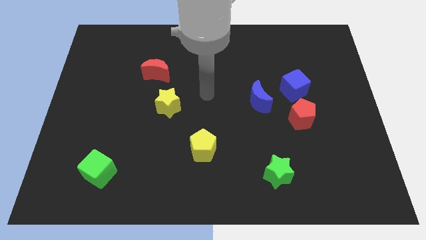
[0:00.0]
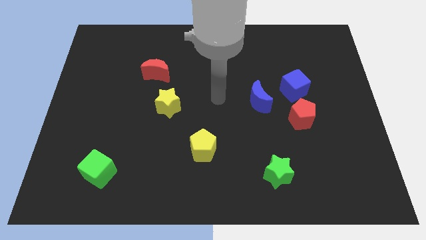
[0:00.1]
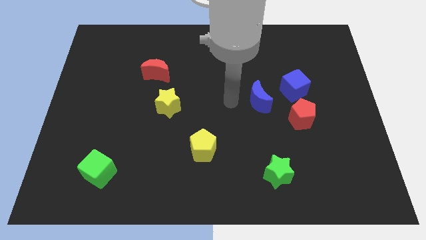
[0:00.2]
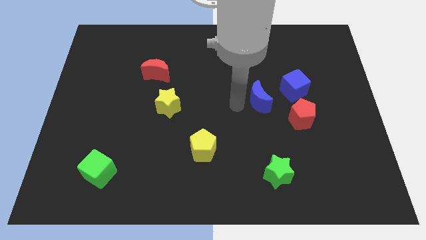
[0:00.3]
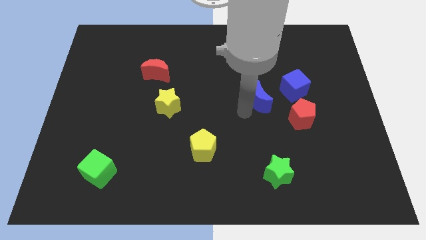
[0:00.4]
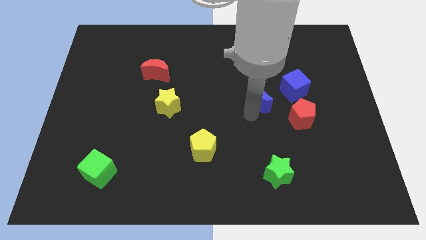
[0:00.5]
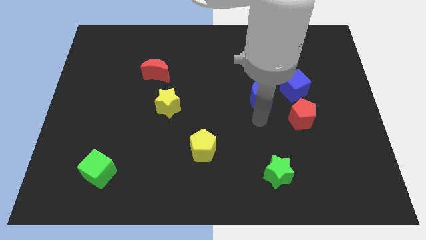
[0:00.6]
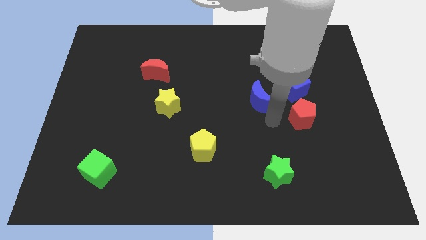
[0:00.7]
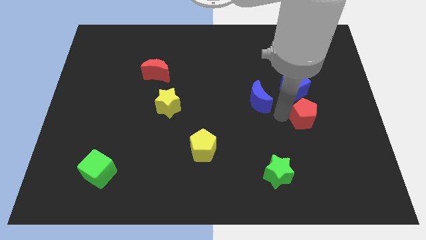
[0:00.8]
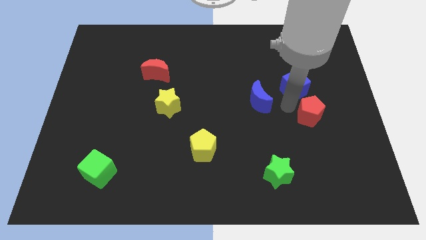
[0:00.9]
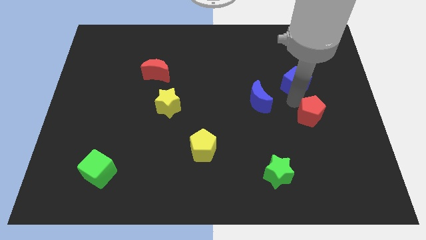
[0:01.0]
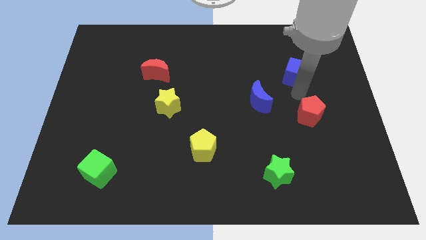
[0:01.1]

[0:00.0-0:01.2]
move the red pentagon away from the blue cube

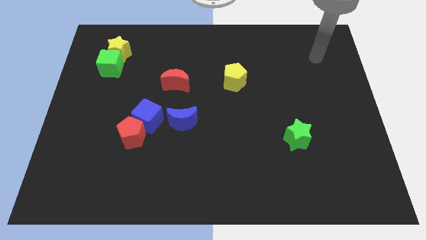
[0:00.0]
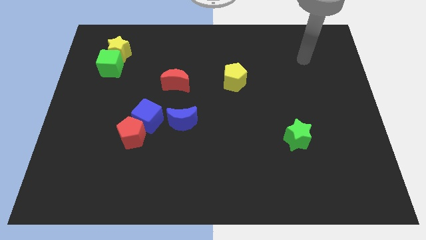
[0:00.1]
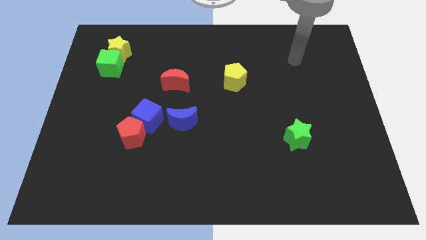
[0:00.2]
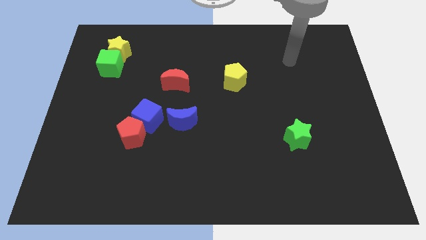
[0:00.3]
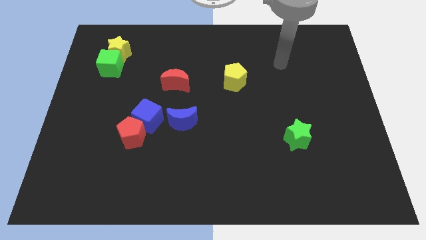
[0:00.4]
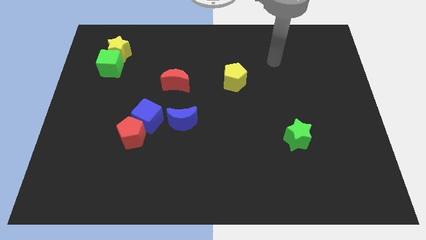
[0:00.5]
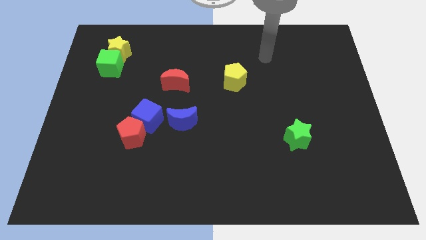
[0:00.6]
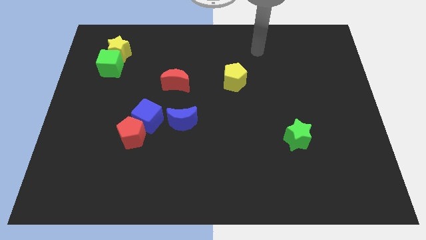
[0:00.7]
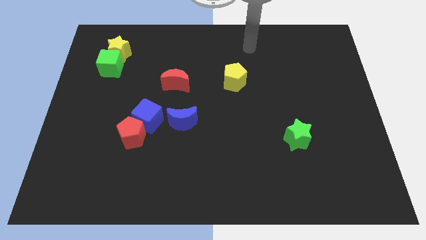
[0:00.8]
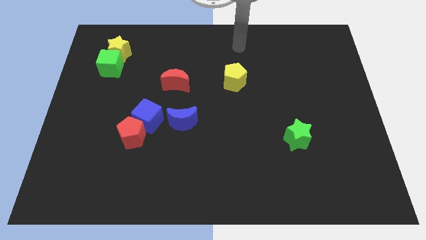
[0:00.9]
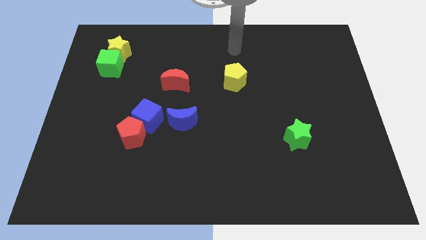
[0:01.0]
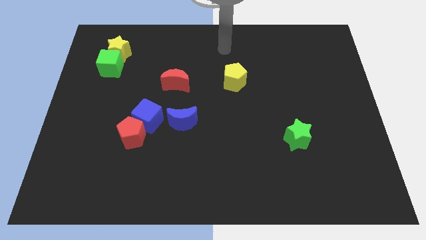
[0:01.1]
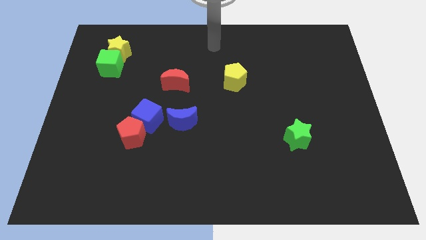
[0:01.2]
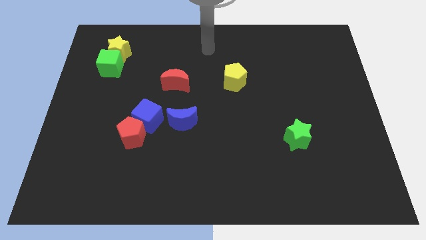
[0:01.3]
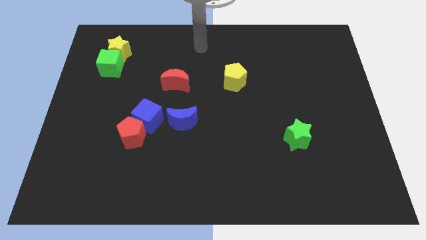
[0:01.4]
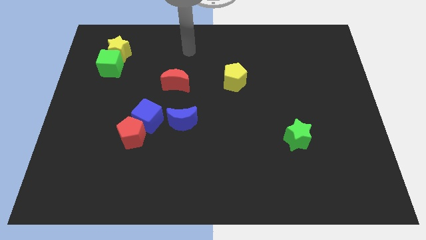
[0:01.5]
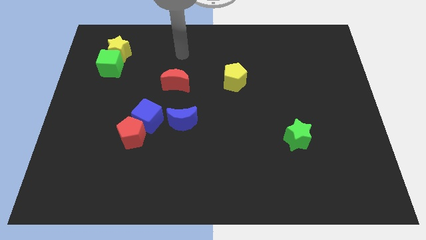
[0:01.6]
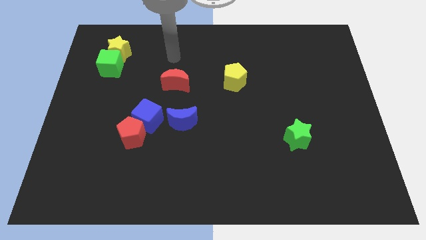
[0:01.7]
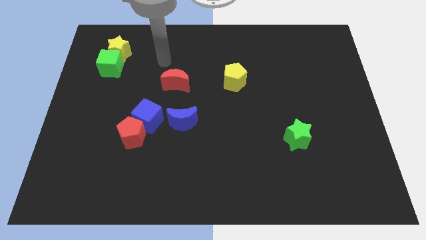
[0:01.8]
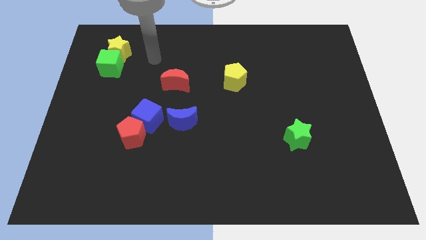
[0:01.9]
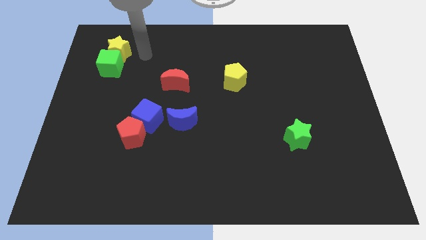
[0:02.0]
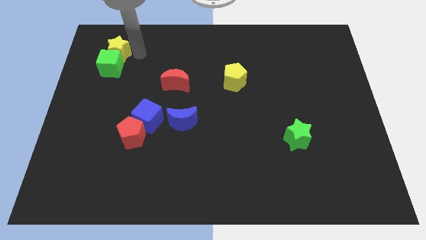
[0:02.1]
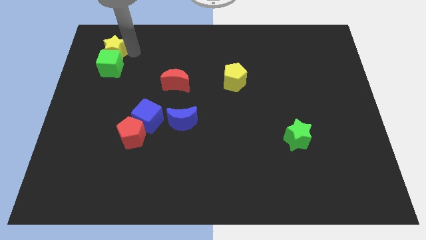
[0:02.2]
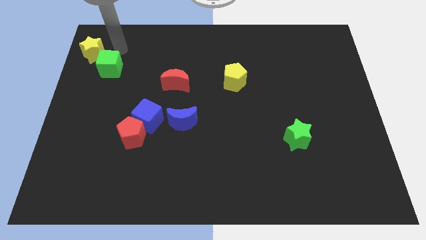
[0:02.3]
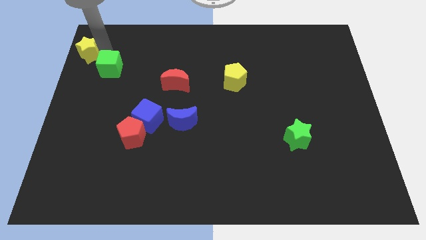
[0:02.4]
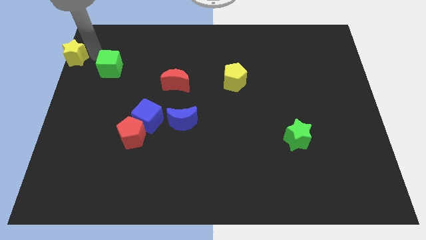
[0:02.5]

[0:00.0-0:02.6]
move the green cube away from the yellow star

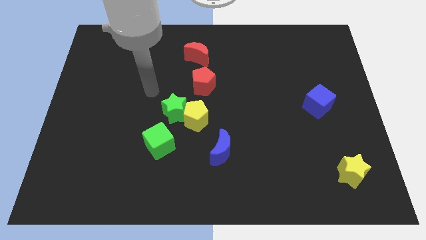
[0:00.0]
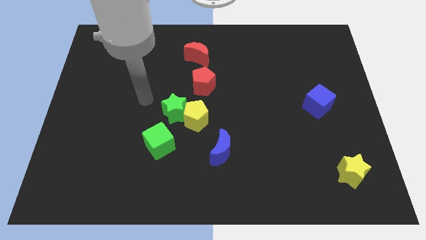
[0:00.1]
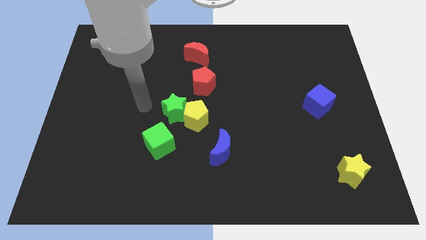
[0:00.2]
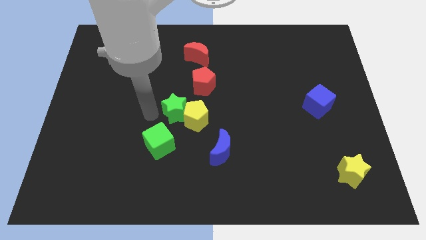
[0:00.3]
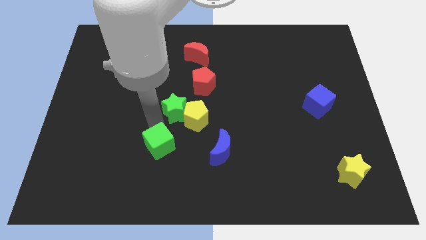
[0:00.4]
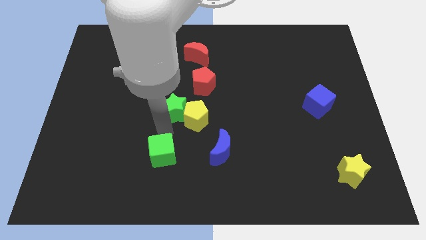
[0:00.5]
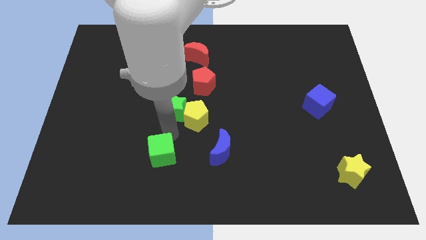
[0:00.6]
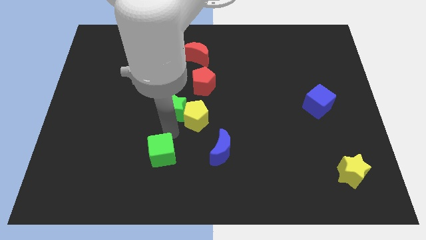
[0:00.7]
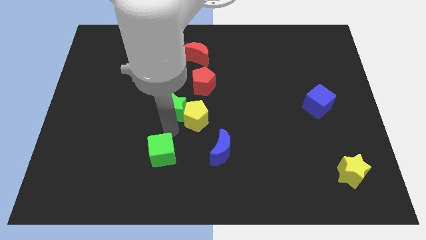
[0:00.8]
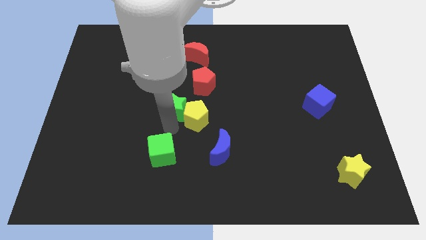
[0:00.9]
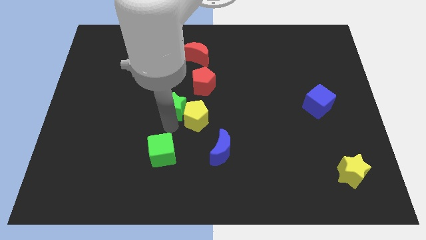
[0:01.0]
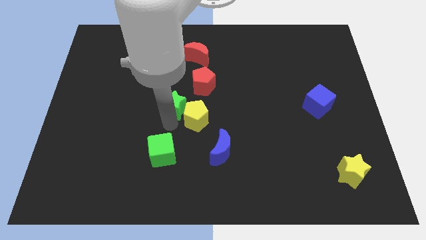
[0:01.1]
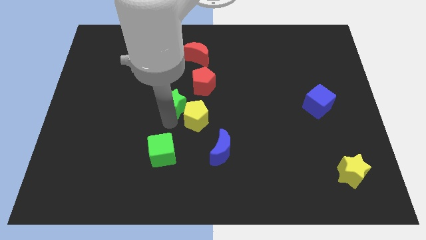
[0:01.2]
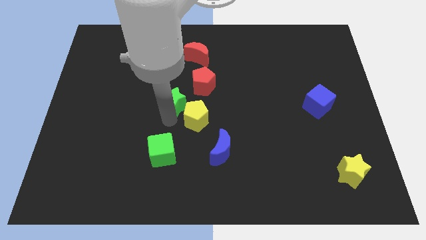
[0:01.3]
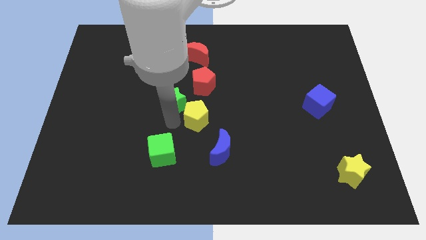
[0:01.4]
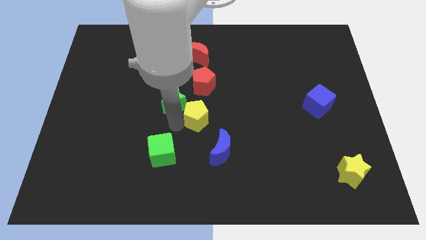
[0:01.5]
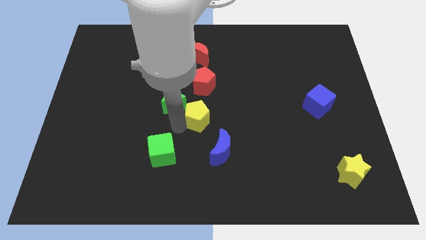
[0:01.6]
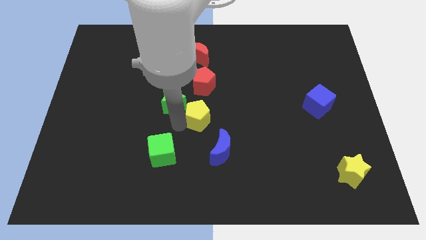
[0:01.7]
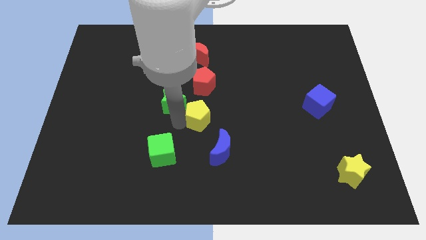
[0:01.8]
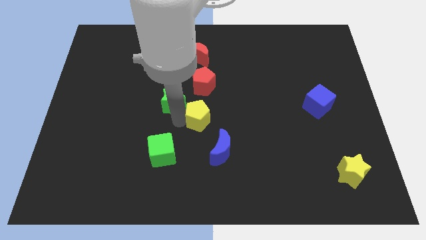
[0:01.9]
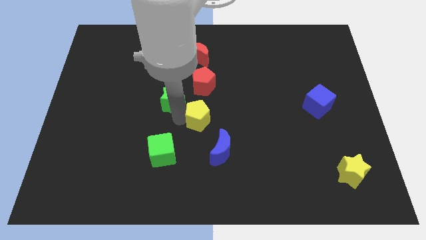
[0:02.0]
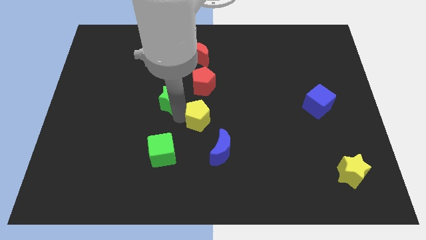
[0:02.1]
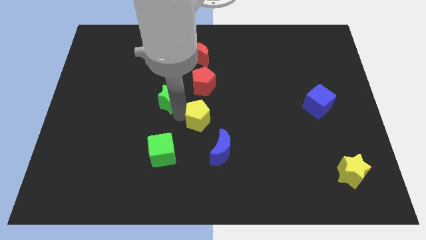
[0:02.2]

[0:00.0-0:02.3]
pull the green star apart from the yellow pentagon and green cube

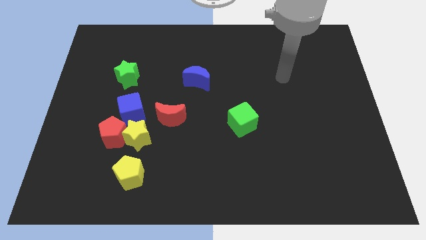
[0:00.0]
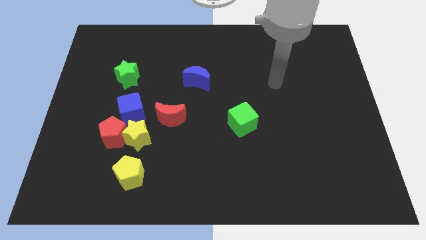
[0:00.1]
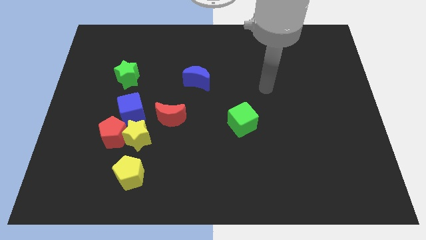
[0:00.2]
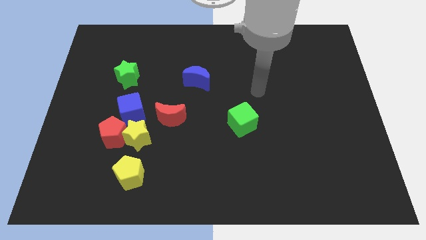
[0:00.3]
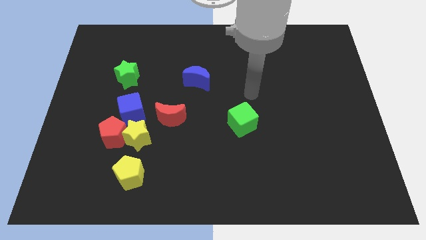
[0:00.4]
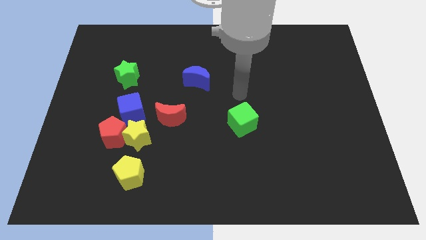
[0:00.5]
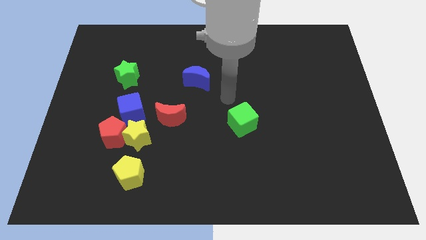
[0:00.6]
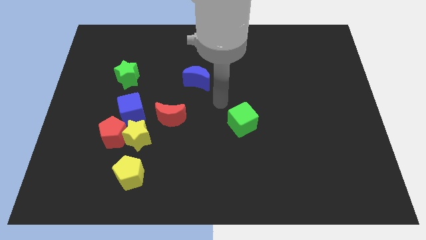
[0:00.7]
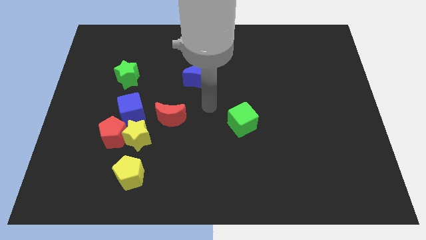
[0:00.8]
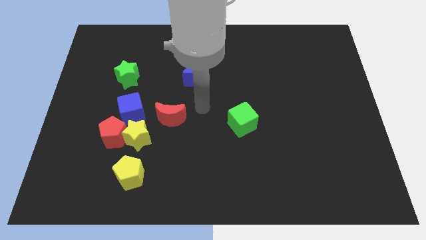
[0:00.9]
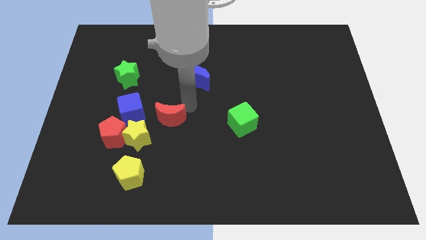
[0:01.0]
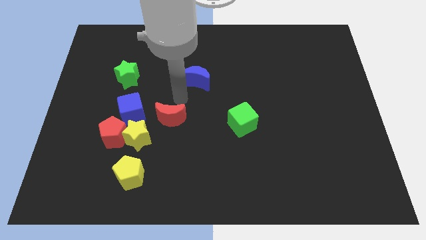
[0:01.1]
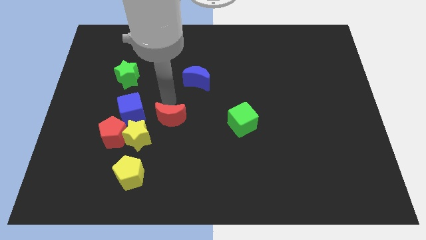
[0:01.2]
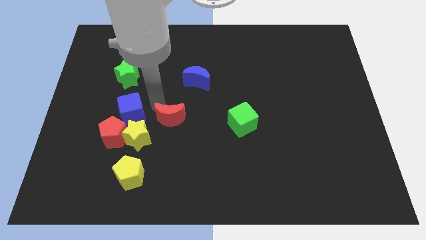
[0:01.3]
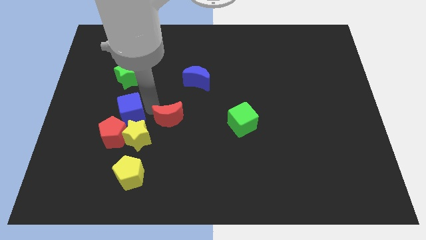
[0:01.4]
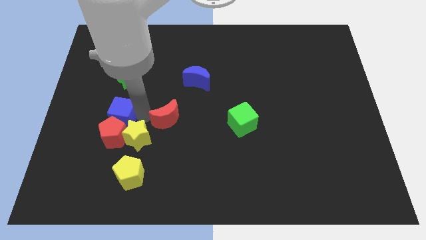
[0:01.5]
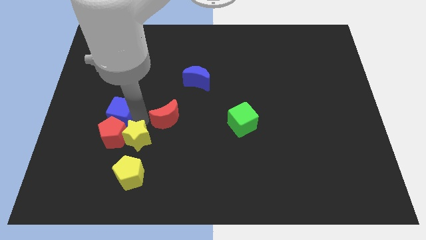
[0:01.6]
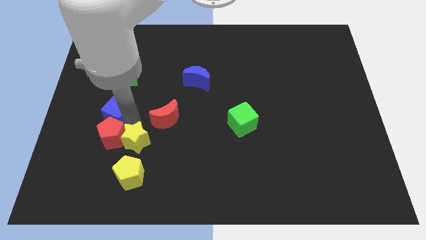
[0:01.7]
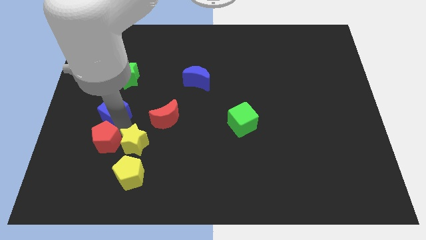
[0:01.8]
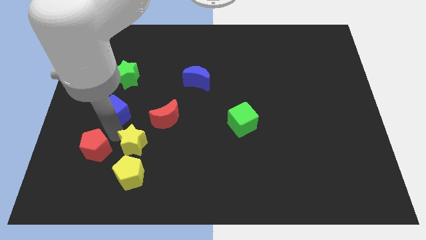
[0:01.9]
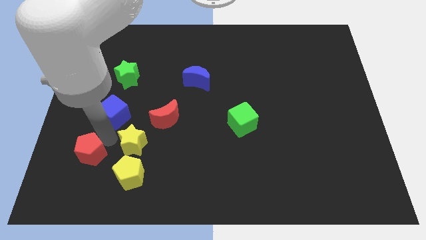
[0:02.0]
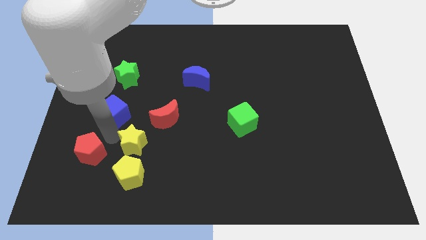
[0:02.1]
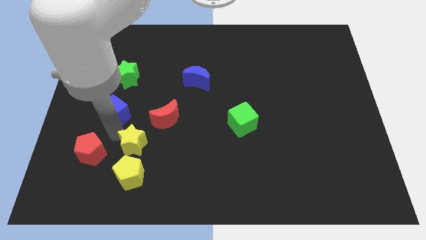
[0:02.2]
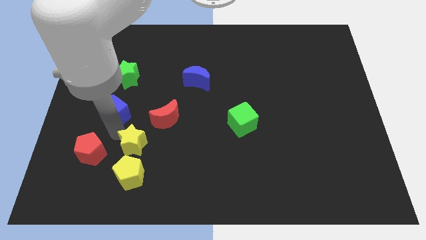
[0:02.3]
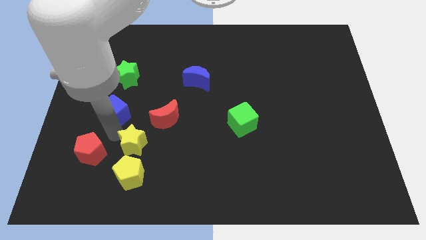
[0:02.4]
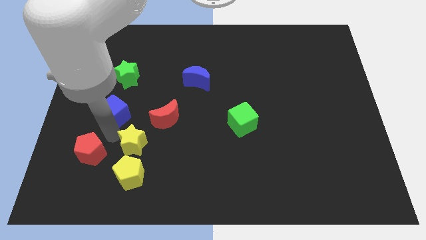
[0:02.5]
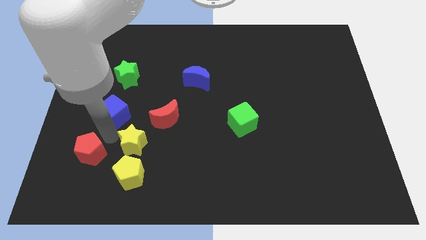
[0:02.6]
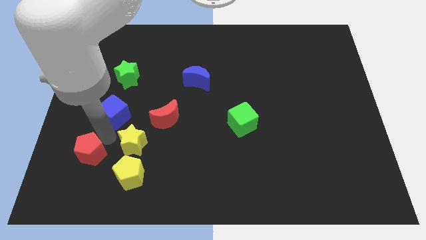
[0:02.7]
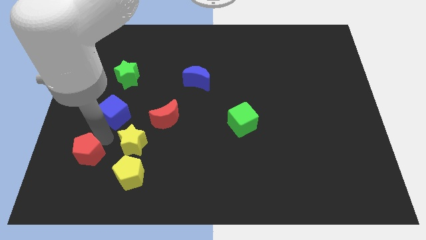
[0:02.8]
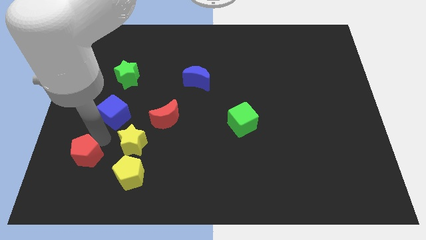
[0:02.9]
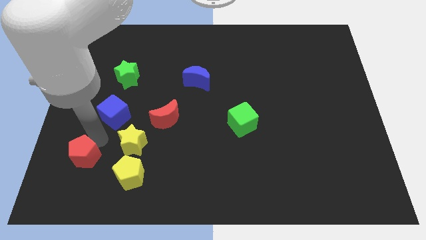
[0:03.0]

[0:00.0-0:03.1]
pull the red pentagon apart from the yellow star and blue cube

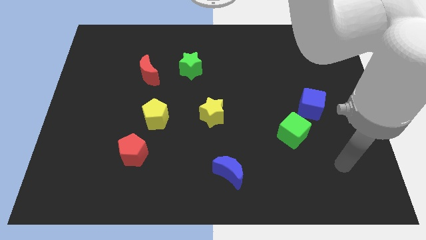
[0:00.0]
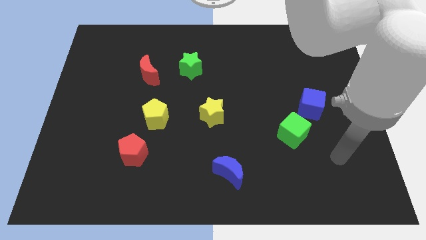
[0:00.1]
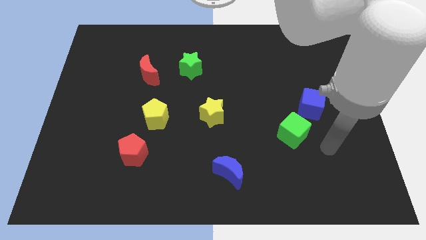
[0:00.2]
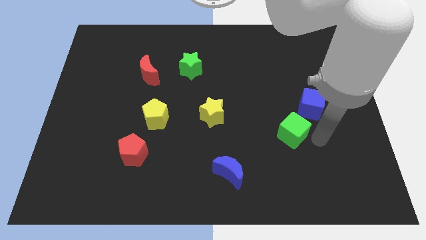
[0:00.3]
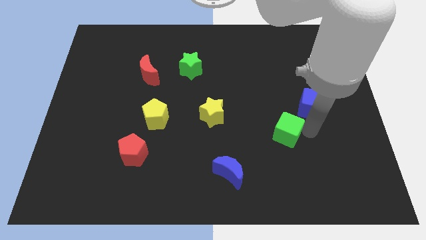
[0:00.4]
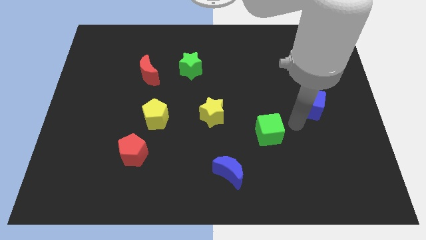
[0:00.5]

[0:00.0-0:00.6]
separate the blue cube from the green cube
